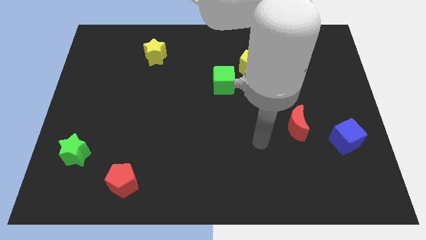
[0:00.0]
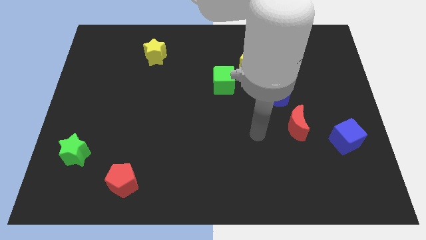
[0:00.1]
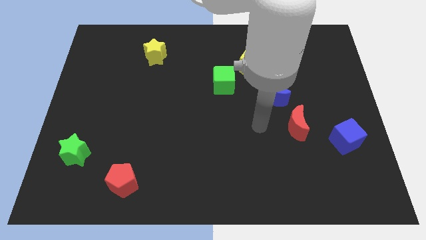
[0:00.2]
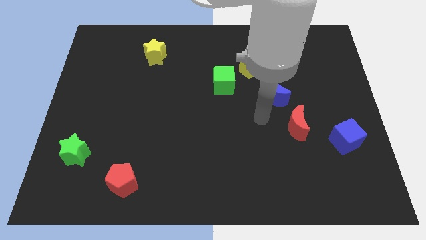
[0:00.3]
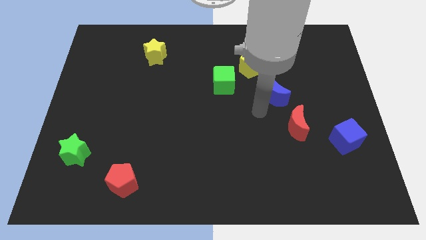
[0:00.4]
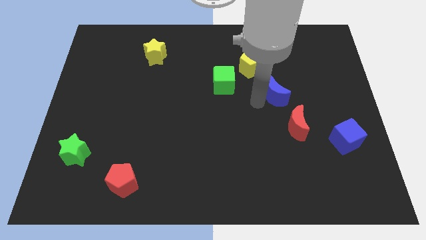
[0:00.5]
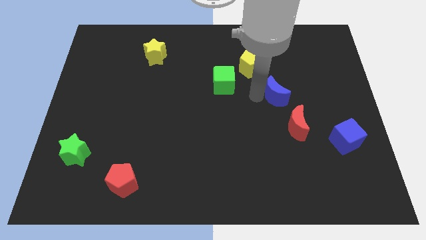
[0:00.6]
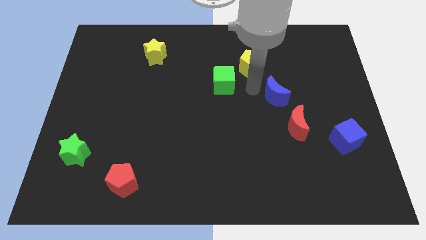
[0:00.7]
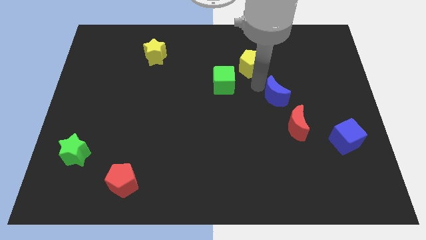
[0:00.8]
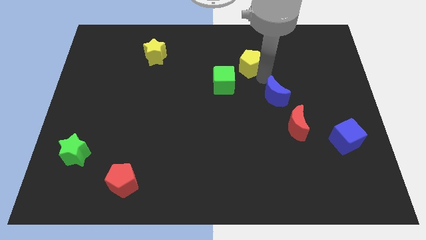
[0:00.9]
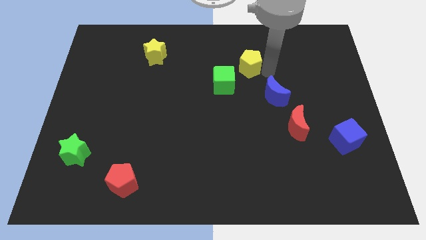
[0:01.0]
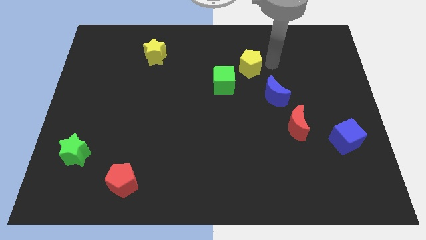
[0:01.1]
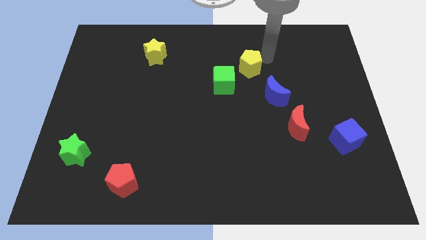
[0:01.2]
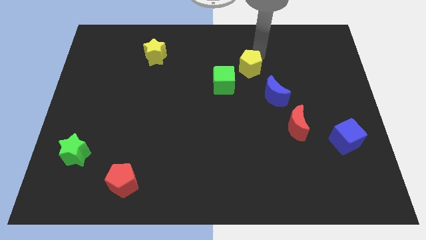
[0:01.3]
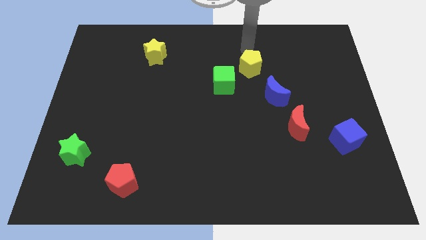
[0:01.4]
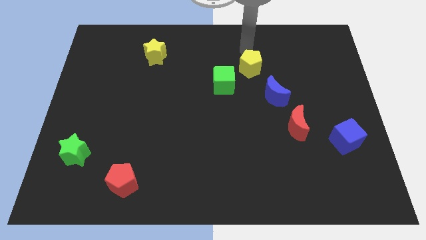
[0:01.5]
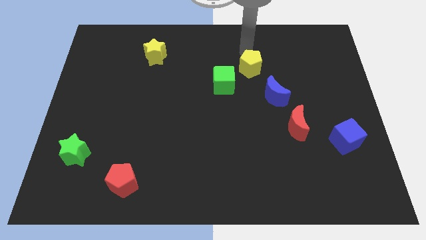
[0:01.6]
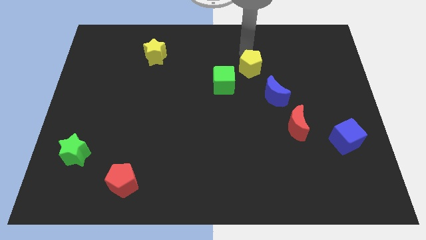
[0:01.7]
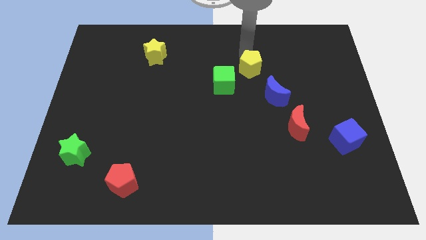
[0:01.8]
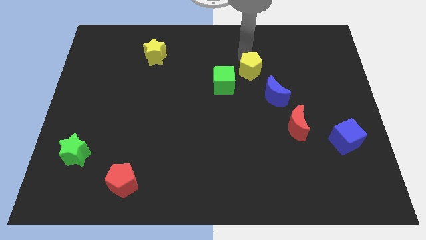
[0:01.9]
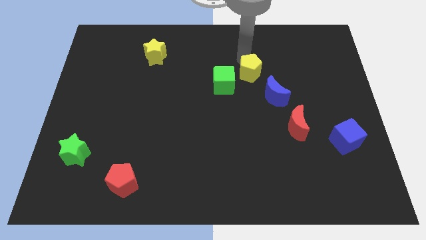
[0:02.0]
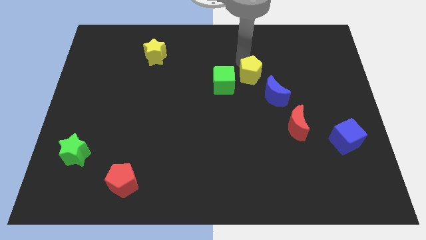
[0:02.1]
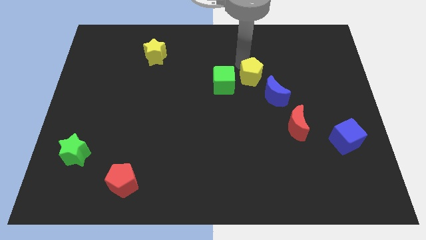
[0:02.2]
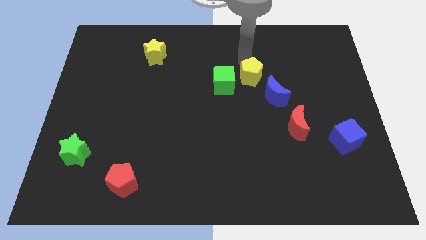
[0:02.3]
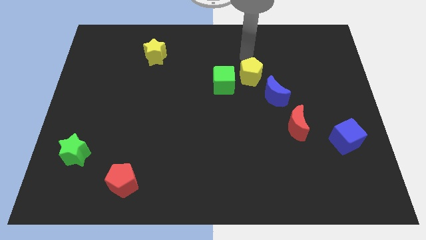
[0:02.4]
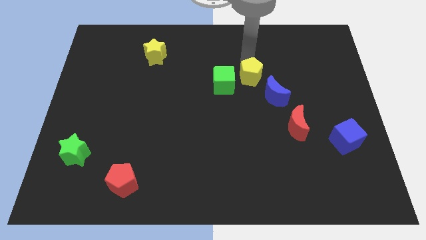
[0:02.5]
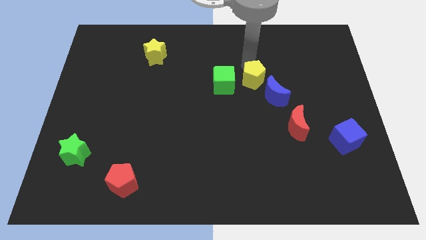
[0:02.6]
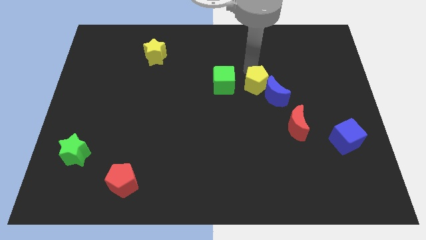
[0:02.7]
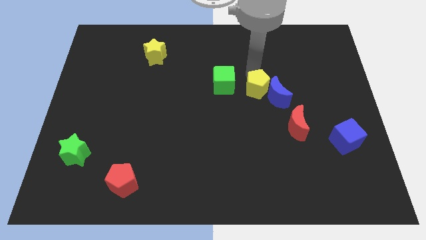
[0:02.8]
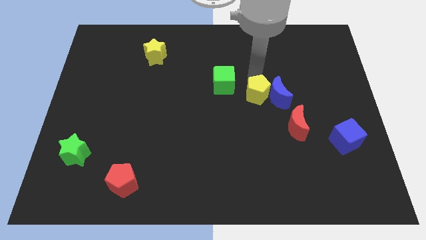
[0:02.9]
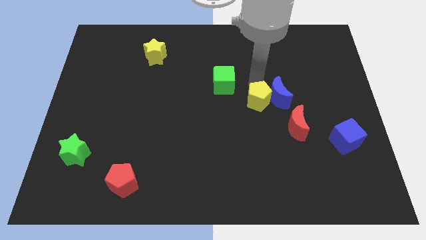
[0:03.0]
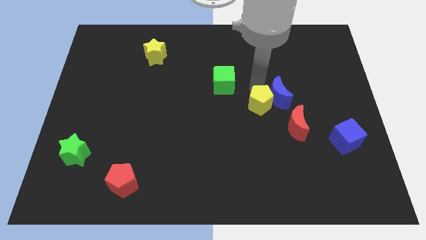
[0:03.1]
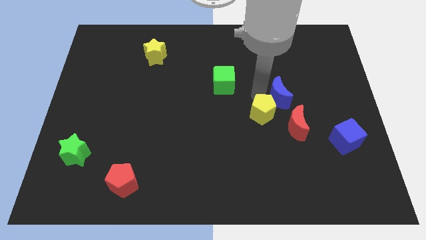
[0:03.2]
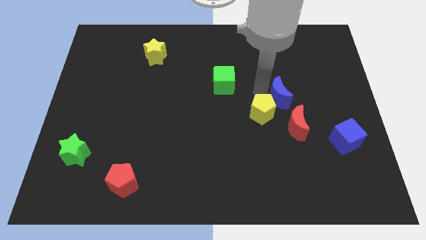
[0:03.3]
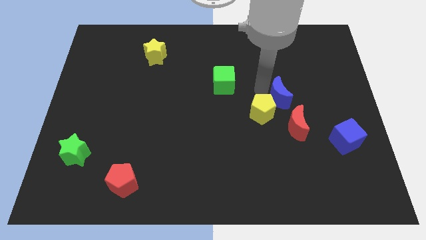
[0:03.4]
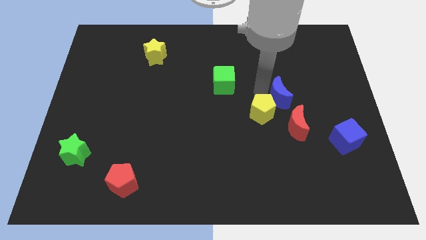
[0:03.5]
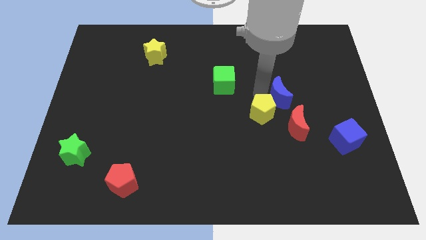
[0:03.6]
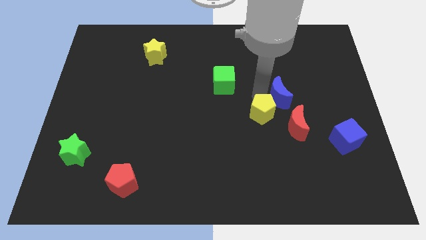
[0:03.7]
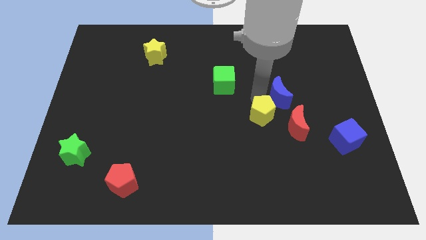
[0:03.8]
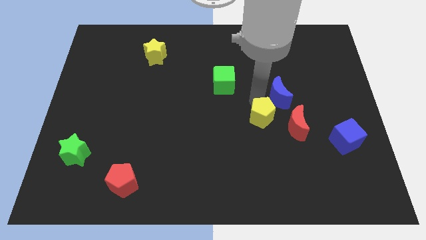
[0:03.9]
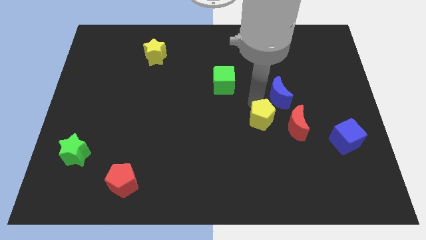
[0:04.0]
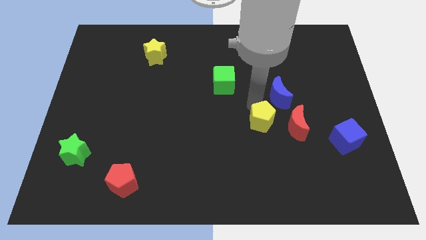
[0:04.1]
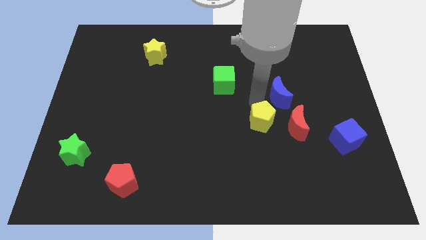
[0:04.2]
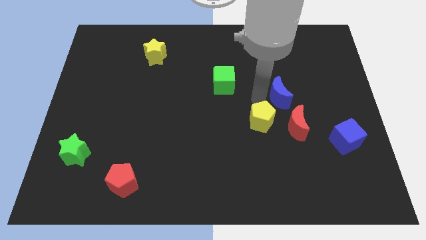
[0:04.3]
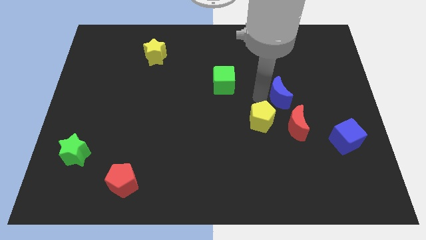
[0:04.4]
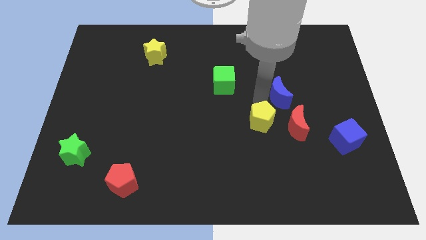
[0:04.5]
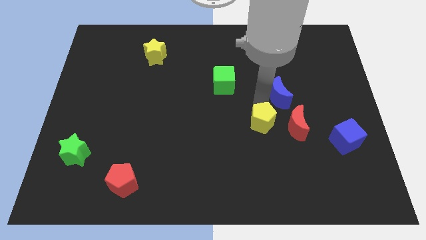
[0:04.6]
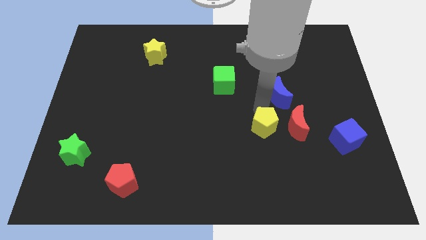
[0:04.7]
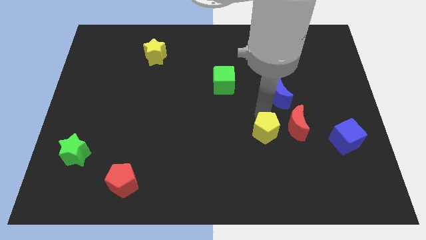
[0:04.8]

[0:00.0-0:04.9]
push the yellow pentagon down

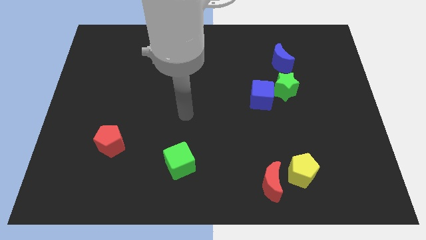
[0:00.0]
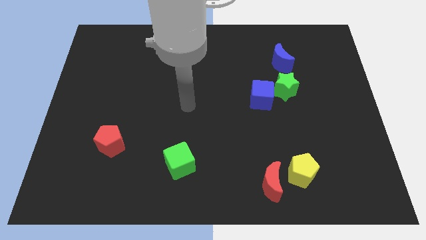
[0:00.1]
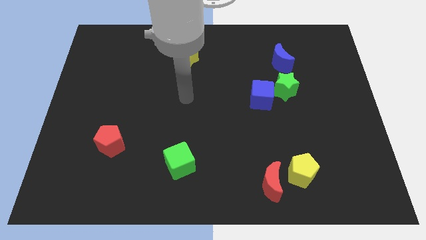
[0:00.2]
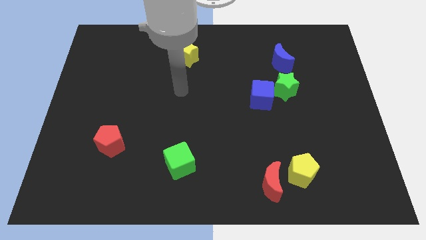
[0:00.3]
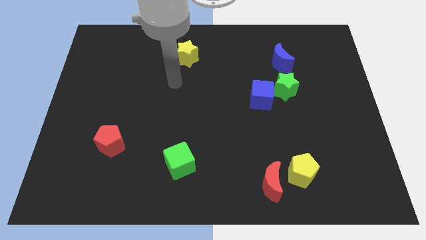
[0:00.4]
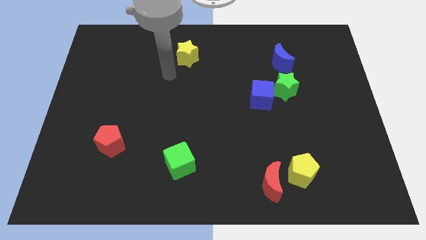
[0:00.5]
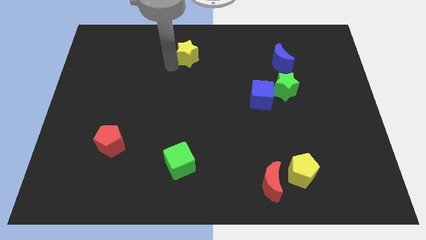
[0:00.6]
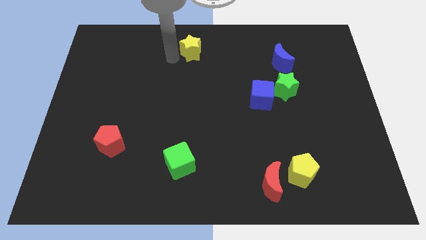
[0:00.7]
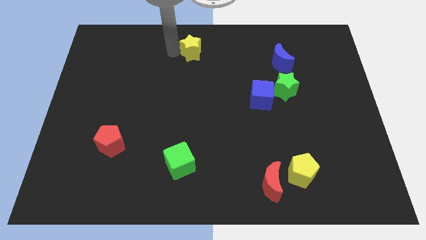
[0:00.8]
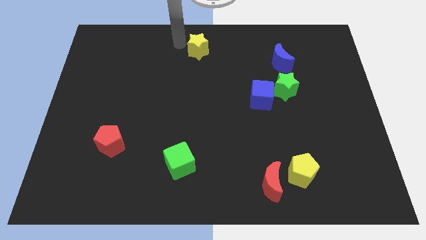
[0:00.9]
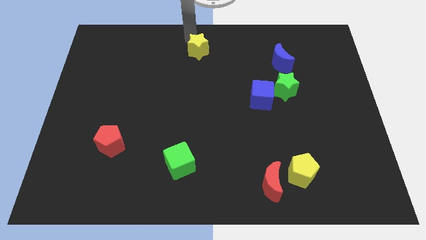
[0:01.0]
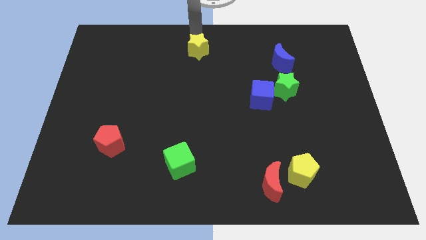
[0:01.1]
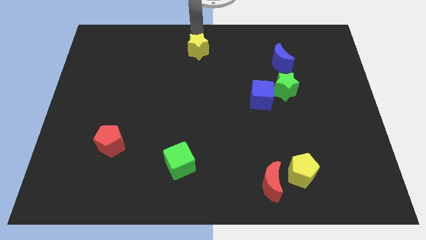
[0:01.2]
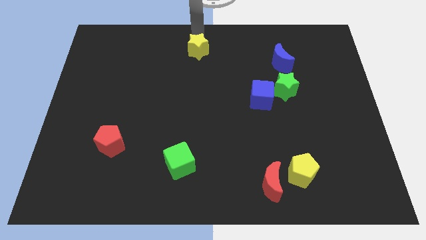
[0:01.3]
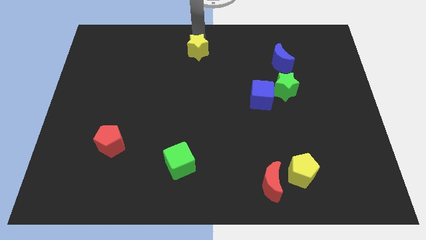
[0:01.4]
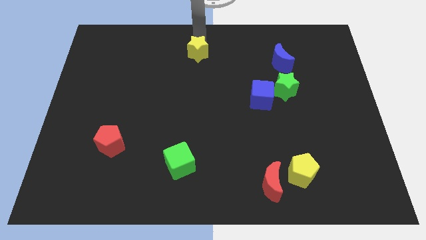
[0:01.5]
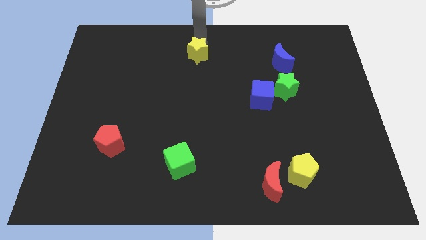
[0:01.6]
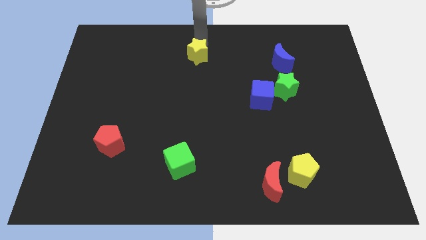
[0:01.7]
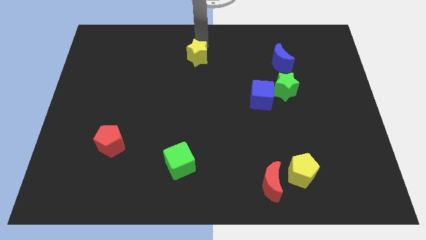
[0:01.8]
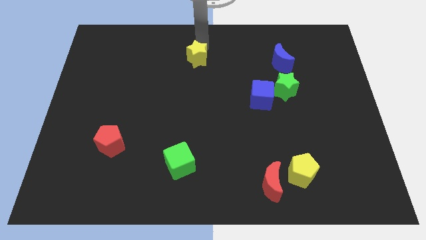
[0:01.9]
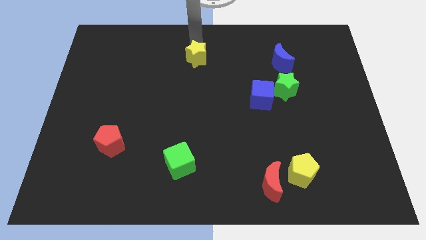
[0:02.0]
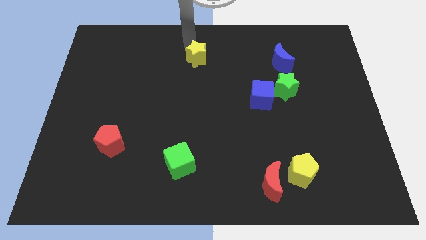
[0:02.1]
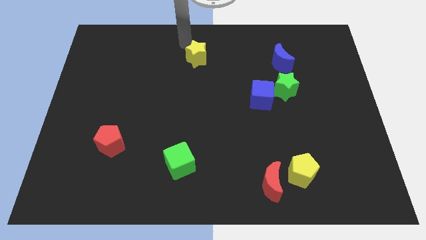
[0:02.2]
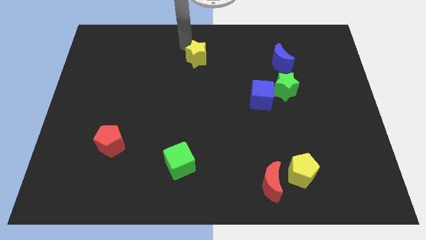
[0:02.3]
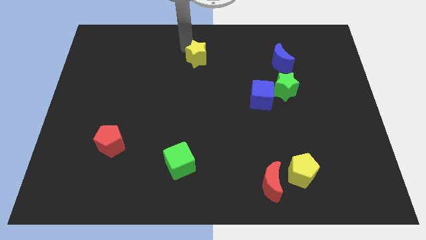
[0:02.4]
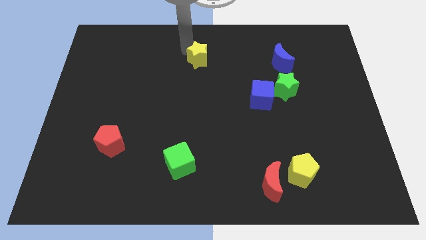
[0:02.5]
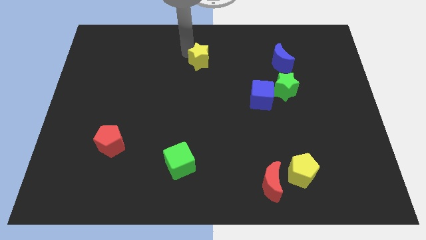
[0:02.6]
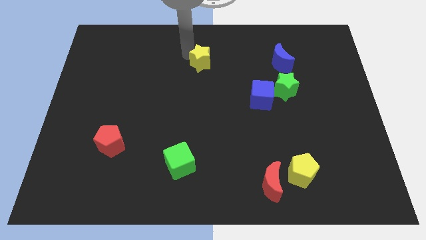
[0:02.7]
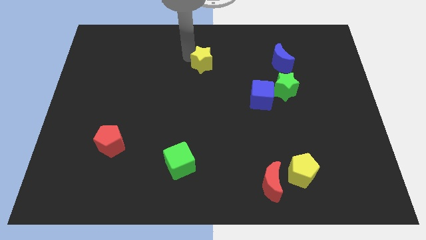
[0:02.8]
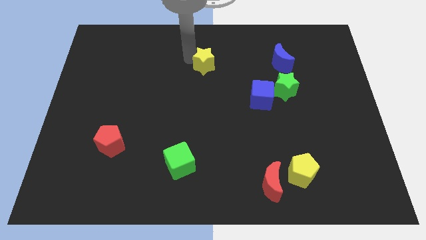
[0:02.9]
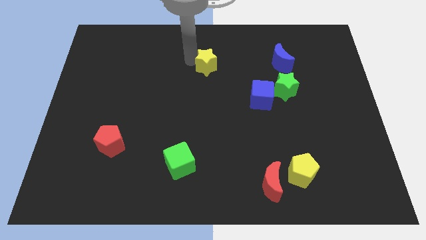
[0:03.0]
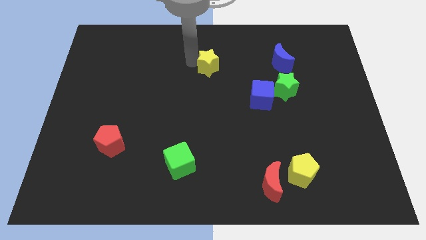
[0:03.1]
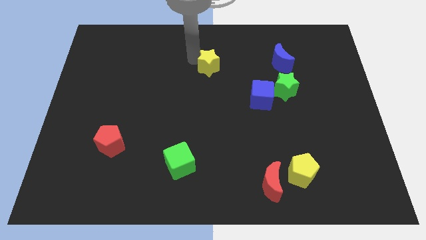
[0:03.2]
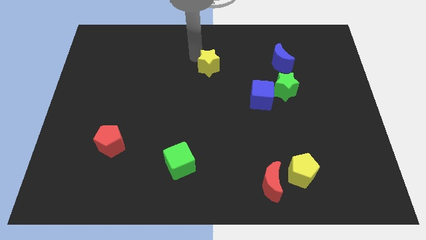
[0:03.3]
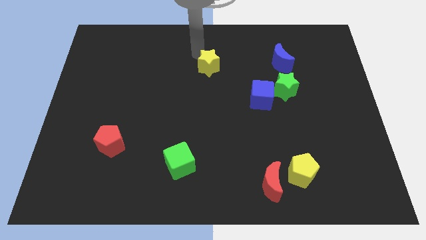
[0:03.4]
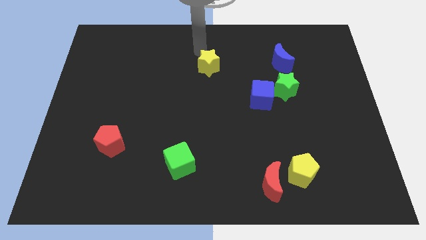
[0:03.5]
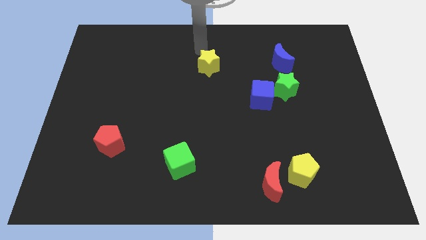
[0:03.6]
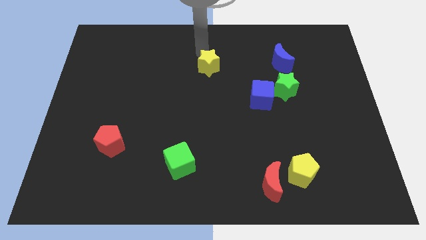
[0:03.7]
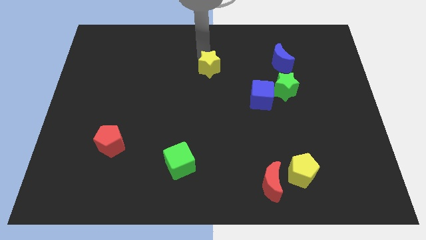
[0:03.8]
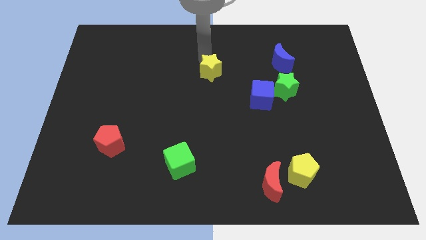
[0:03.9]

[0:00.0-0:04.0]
push the yellow star a bit down and then right
